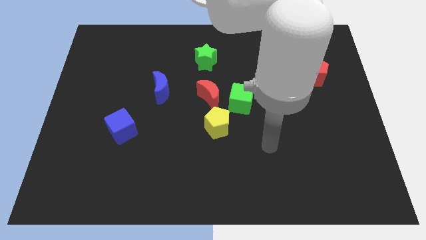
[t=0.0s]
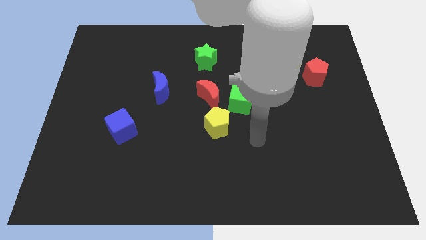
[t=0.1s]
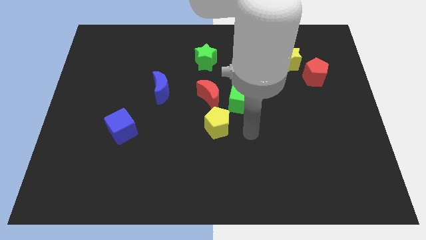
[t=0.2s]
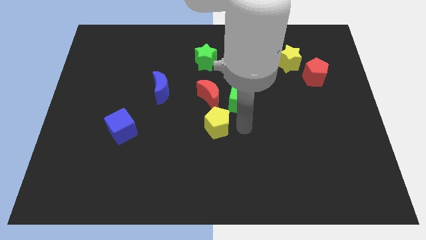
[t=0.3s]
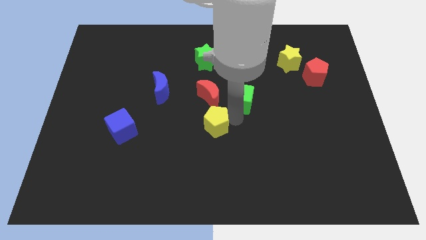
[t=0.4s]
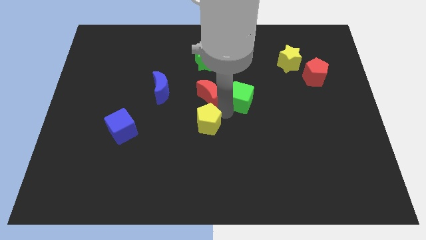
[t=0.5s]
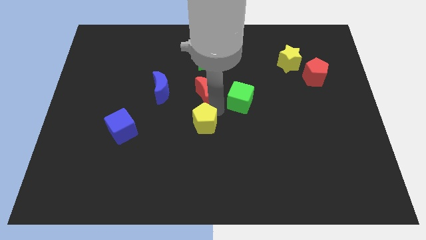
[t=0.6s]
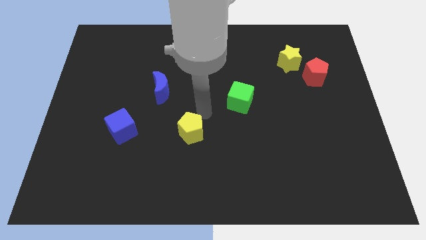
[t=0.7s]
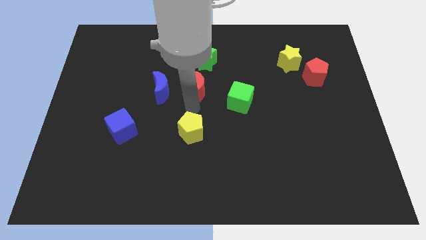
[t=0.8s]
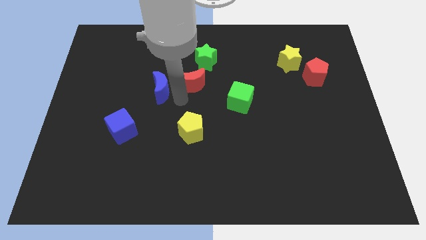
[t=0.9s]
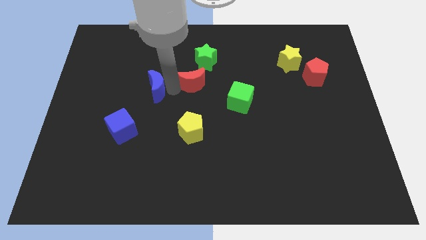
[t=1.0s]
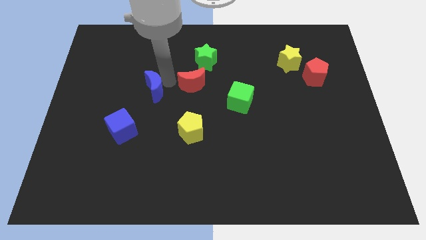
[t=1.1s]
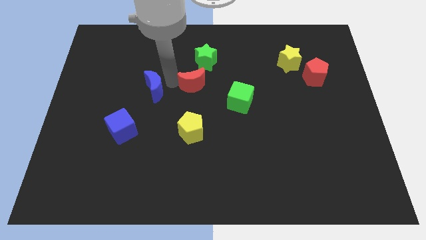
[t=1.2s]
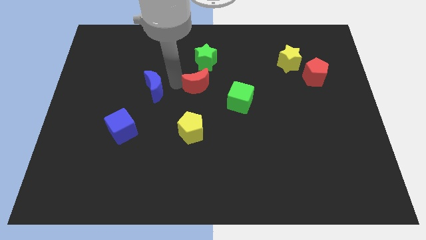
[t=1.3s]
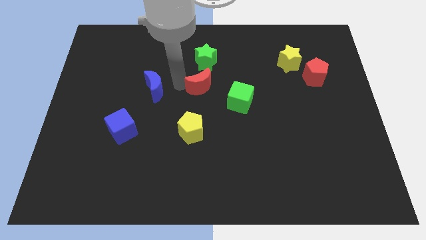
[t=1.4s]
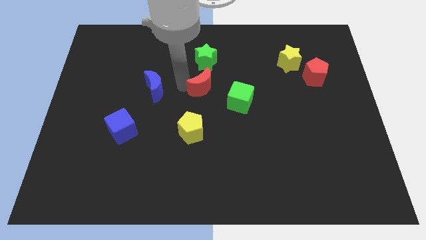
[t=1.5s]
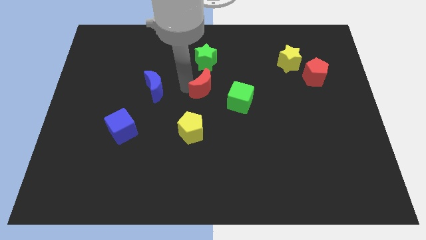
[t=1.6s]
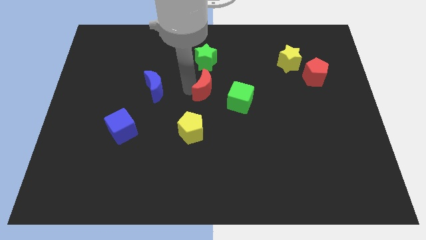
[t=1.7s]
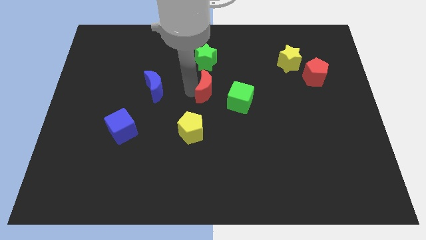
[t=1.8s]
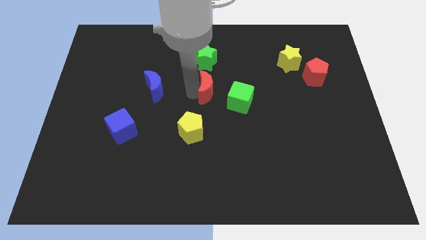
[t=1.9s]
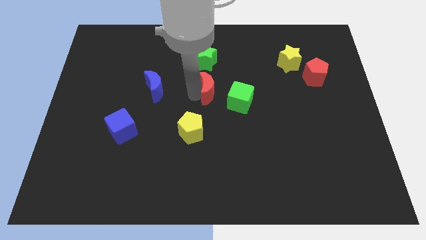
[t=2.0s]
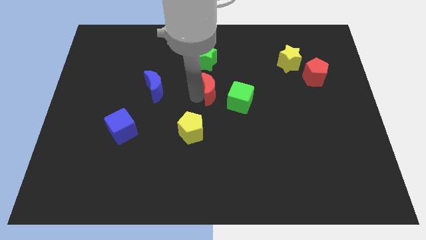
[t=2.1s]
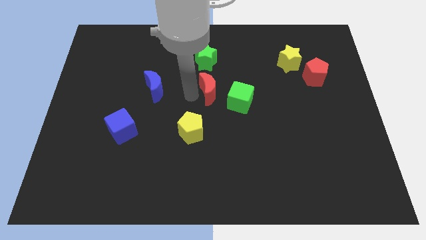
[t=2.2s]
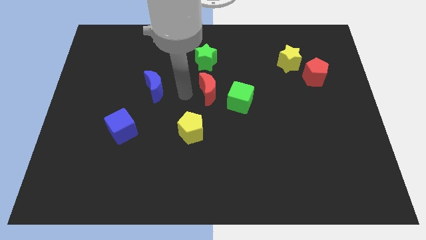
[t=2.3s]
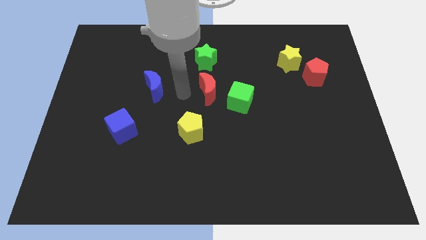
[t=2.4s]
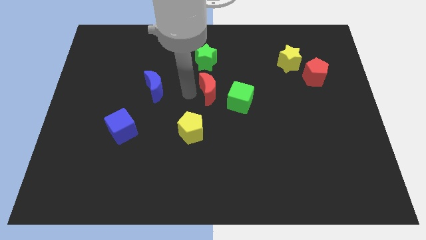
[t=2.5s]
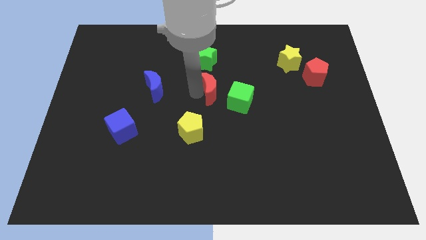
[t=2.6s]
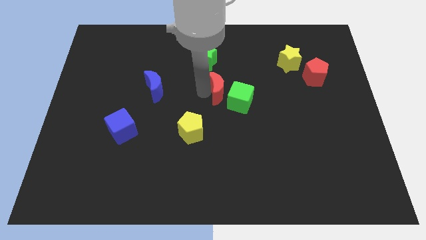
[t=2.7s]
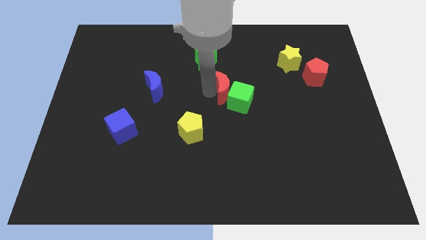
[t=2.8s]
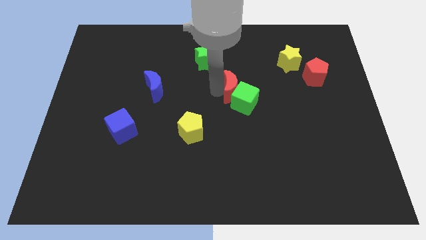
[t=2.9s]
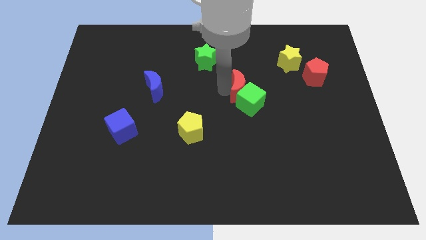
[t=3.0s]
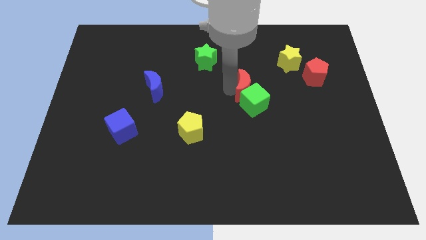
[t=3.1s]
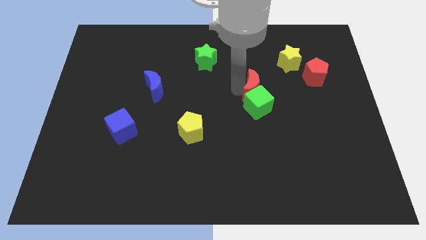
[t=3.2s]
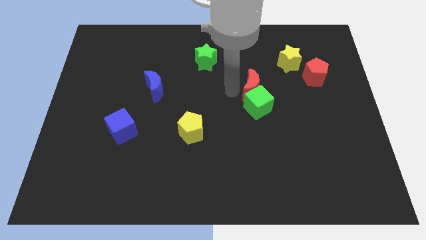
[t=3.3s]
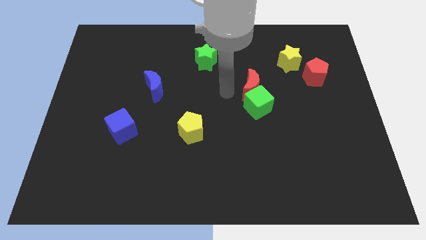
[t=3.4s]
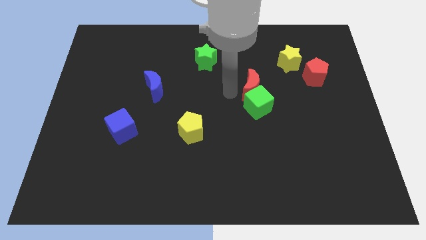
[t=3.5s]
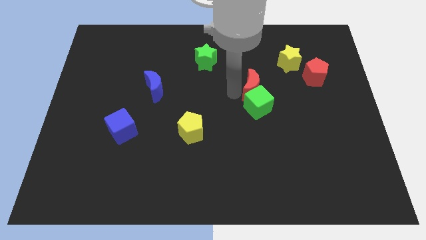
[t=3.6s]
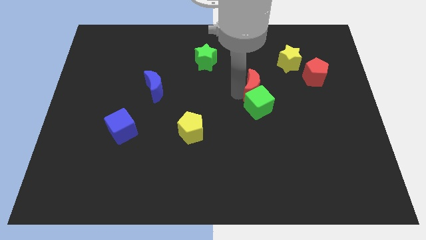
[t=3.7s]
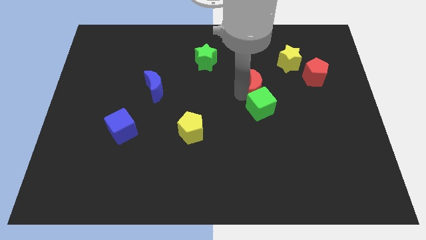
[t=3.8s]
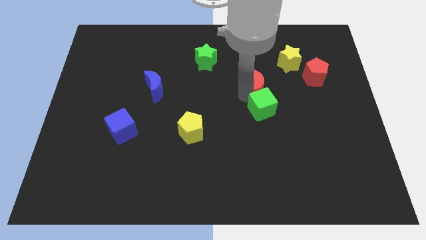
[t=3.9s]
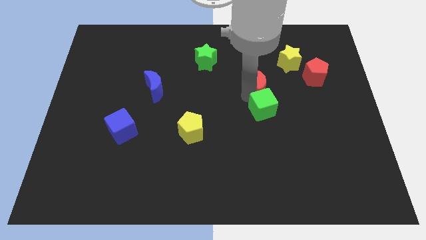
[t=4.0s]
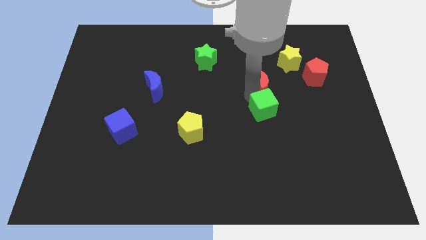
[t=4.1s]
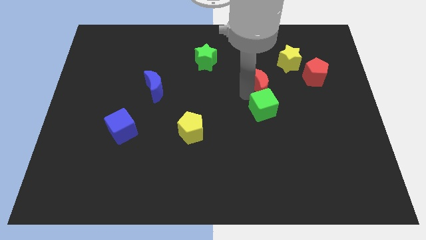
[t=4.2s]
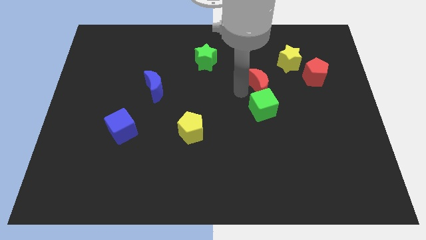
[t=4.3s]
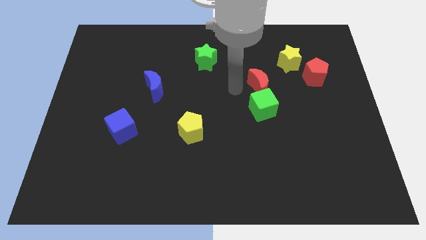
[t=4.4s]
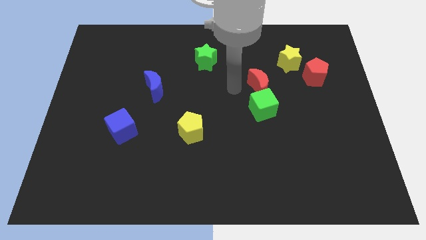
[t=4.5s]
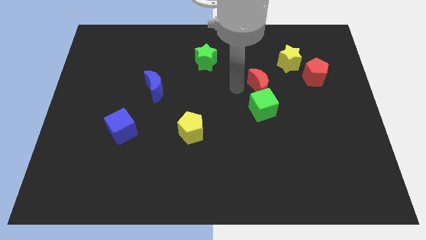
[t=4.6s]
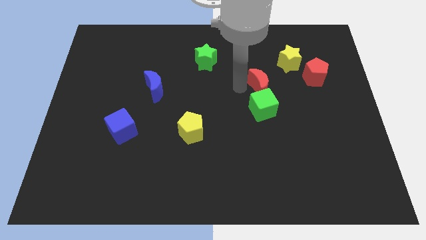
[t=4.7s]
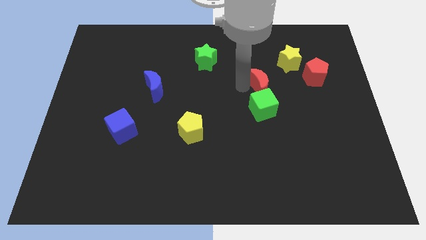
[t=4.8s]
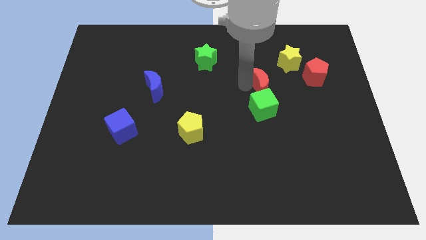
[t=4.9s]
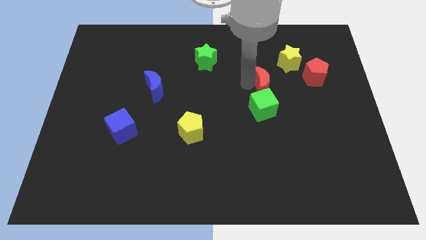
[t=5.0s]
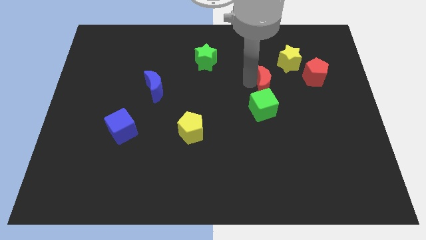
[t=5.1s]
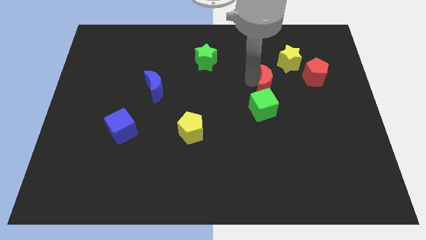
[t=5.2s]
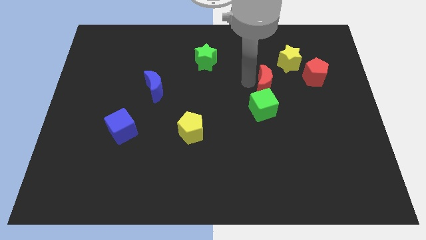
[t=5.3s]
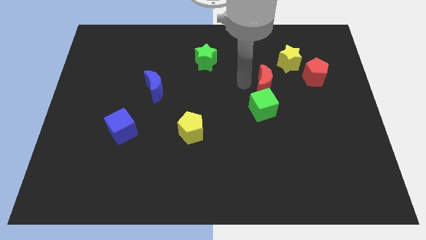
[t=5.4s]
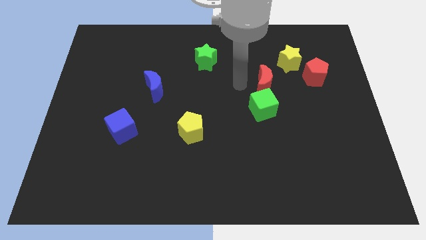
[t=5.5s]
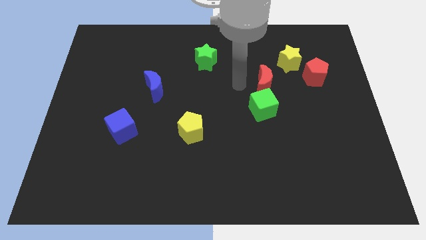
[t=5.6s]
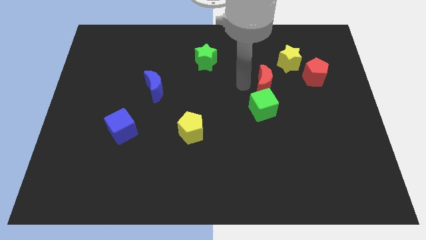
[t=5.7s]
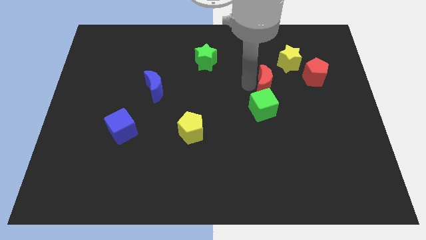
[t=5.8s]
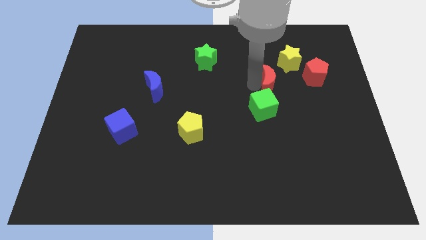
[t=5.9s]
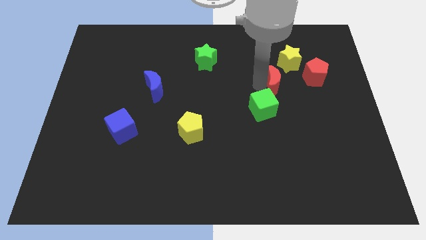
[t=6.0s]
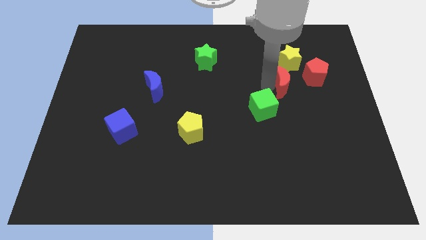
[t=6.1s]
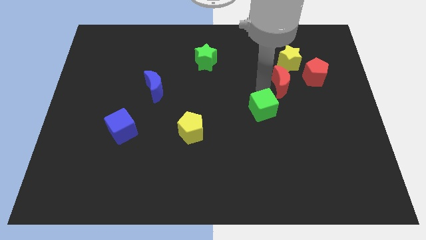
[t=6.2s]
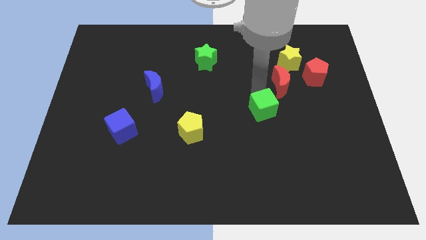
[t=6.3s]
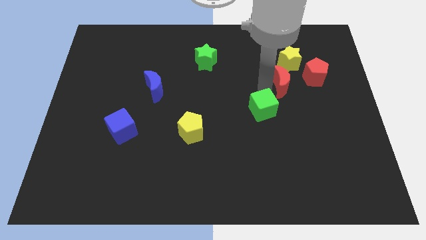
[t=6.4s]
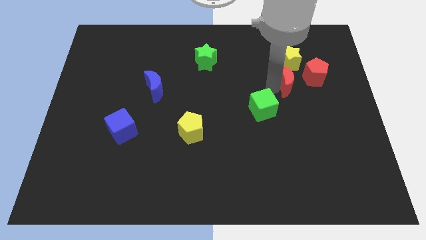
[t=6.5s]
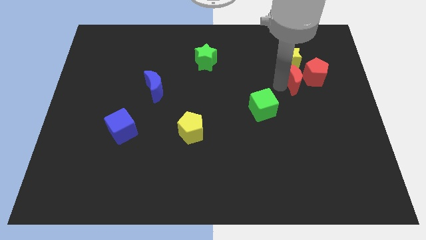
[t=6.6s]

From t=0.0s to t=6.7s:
push the red moon close to the red pentagon

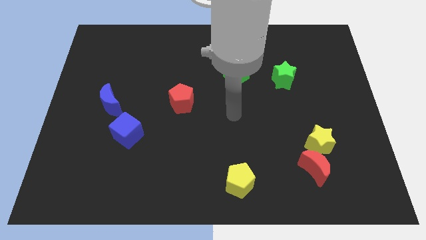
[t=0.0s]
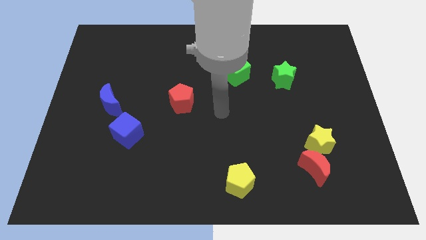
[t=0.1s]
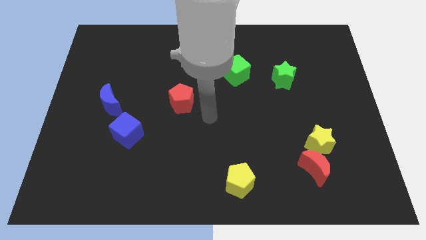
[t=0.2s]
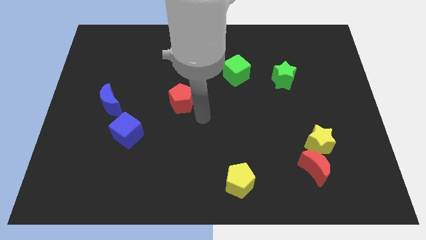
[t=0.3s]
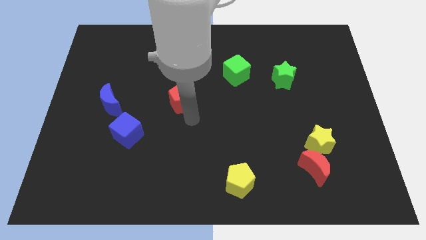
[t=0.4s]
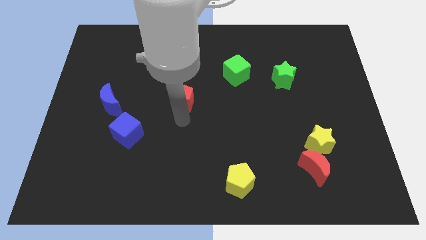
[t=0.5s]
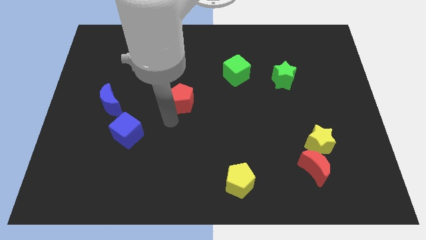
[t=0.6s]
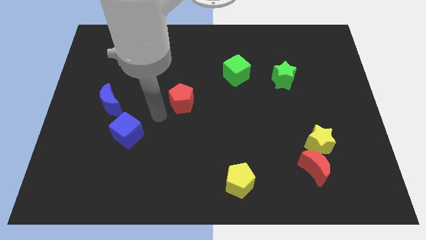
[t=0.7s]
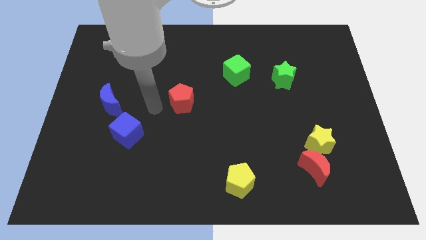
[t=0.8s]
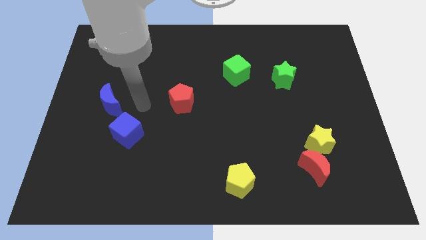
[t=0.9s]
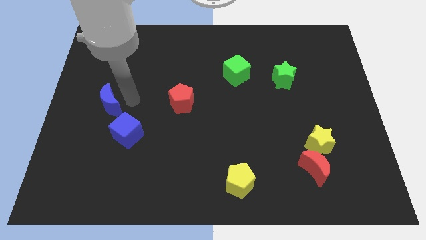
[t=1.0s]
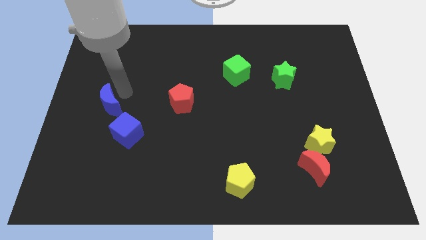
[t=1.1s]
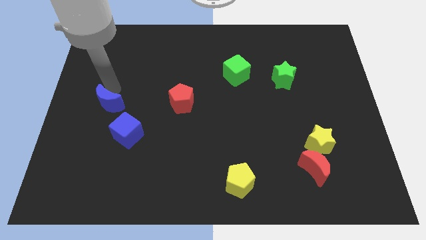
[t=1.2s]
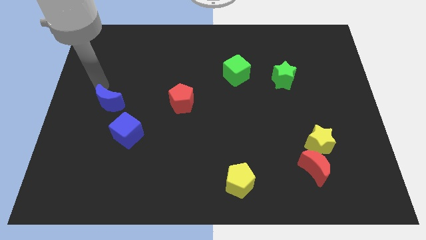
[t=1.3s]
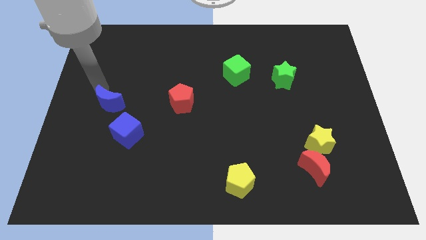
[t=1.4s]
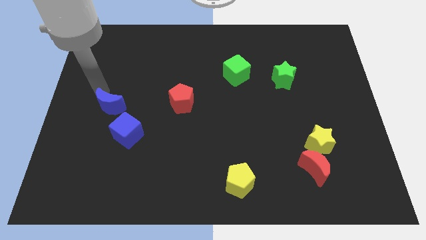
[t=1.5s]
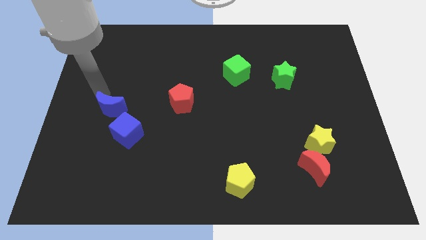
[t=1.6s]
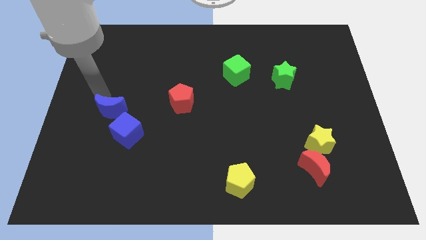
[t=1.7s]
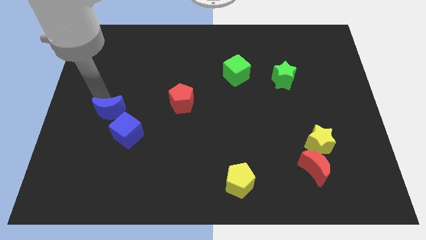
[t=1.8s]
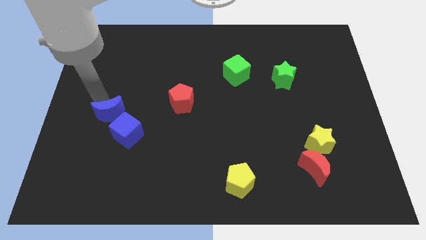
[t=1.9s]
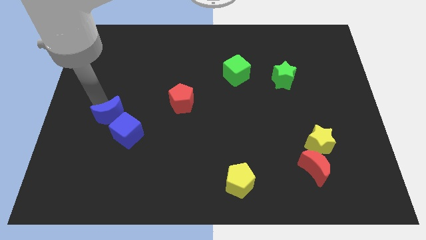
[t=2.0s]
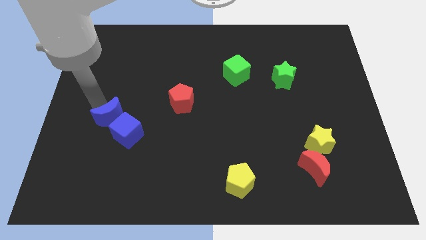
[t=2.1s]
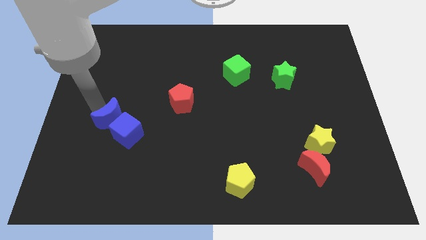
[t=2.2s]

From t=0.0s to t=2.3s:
put the blue moon towards the blue cube
